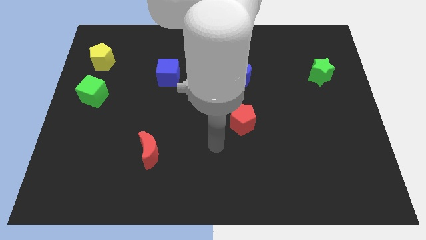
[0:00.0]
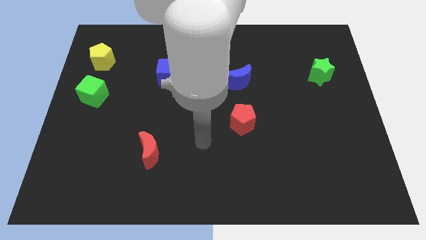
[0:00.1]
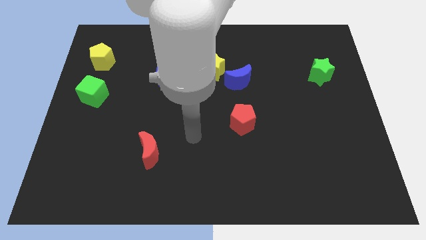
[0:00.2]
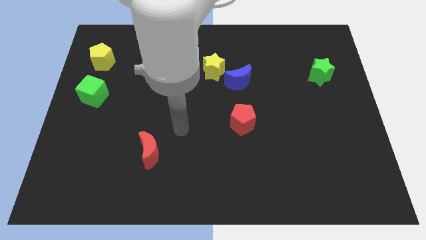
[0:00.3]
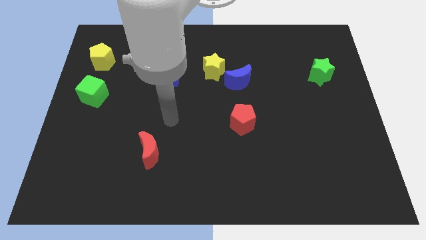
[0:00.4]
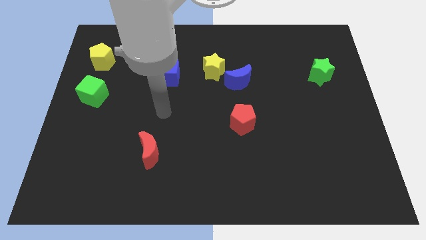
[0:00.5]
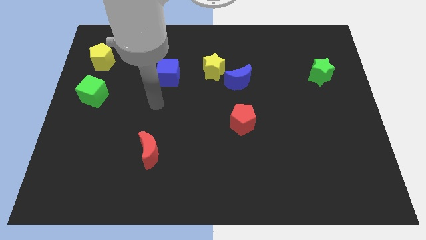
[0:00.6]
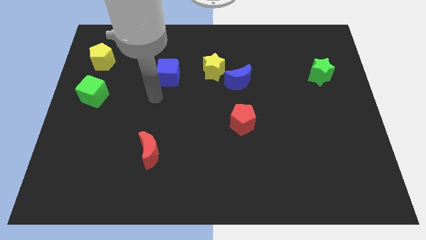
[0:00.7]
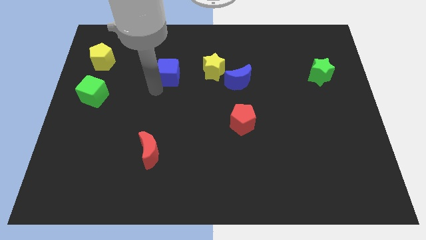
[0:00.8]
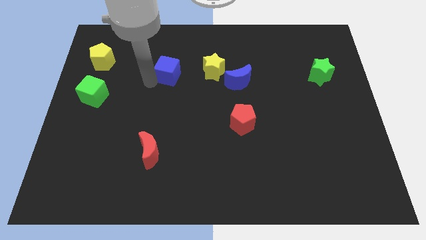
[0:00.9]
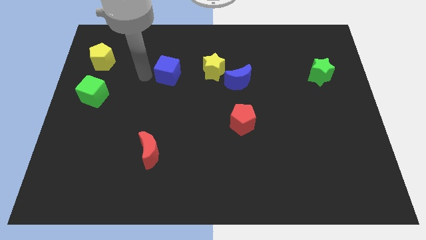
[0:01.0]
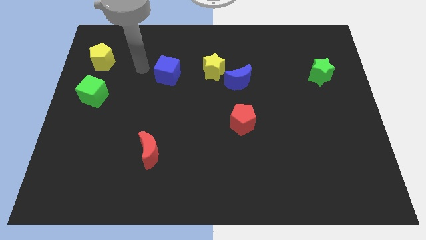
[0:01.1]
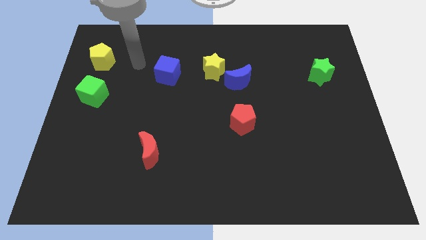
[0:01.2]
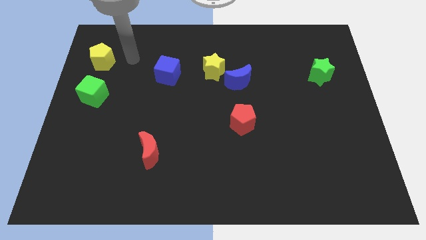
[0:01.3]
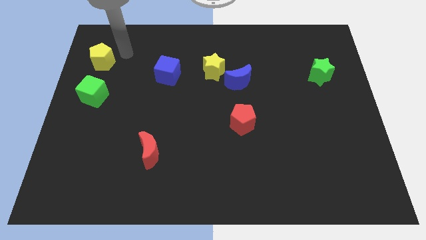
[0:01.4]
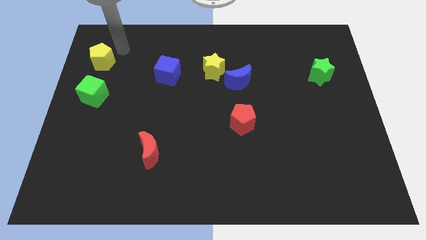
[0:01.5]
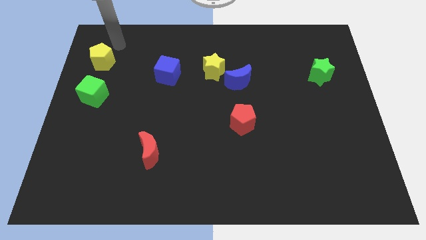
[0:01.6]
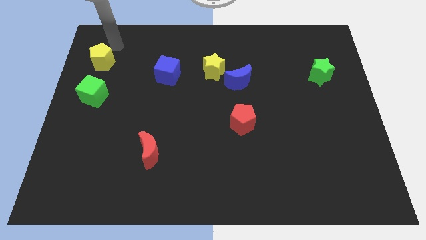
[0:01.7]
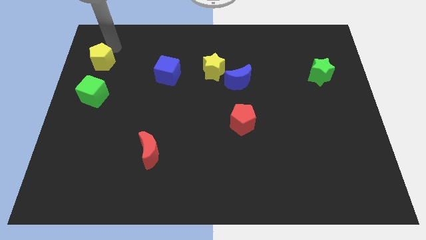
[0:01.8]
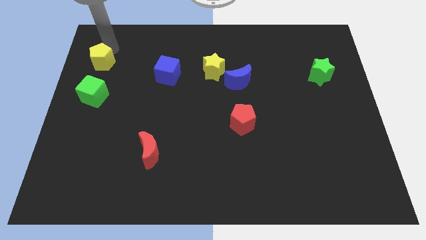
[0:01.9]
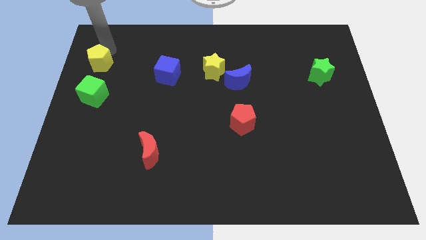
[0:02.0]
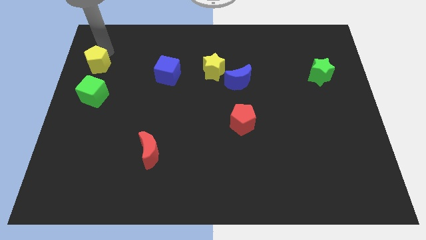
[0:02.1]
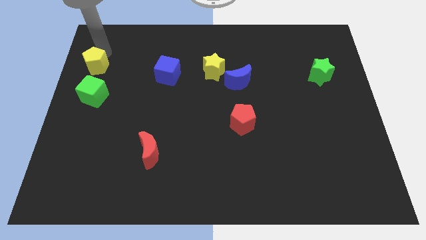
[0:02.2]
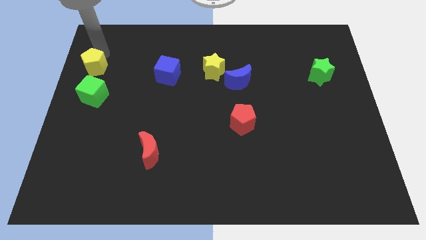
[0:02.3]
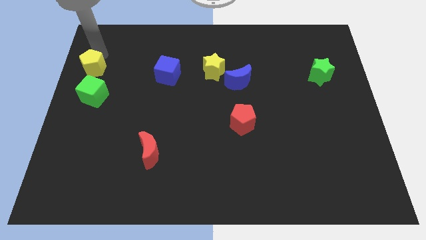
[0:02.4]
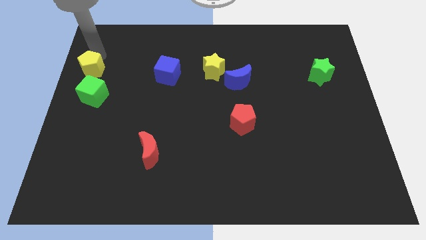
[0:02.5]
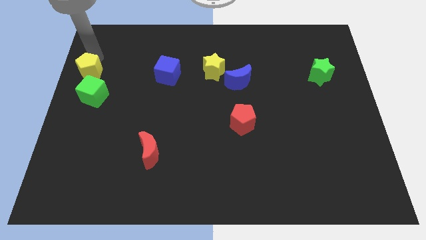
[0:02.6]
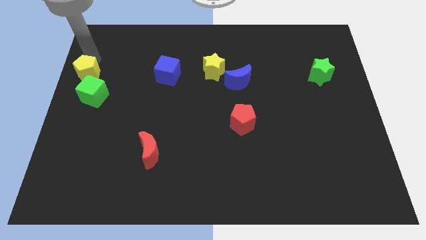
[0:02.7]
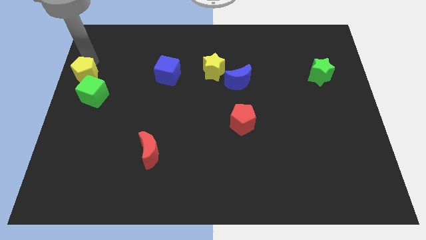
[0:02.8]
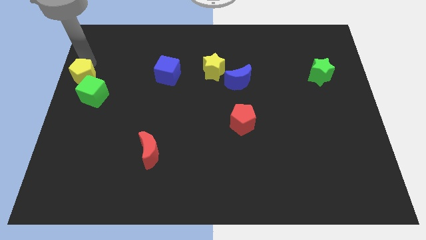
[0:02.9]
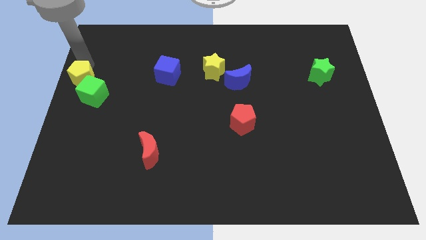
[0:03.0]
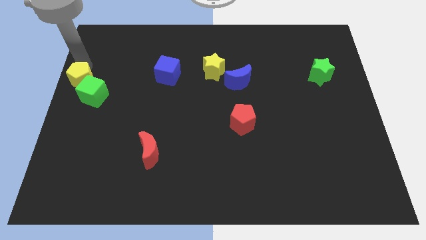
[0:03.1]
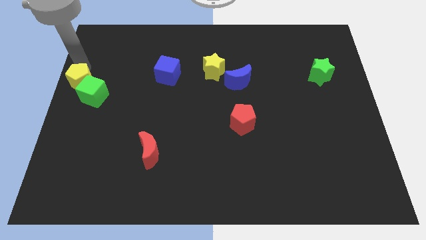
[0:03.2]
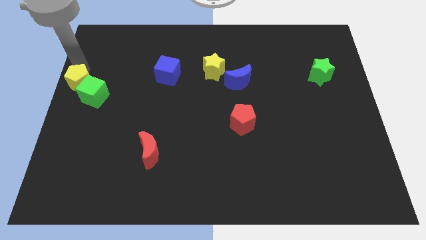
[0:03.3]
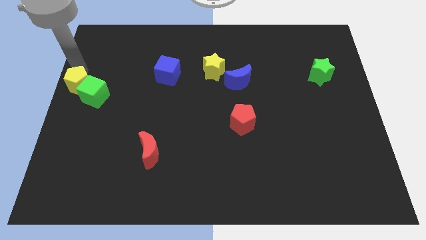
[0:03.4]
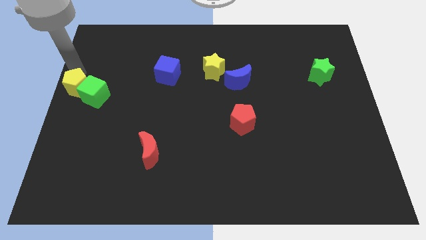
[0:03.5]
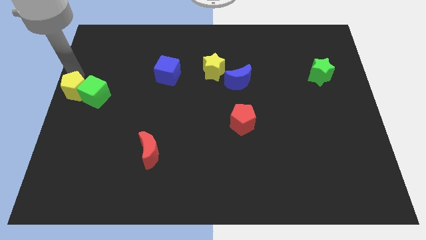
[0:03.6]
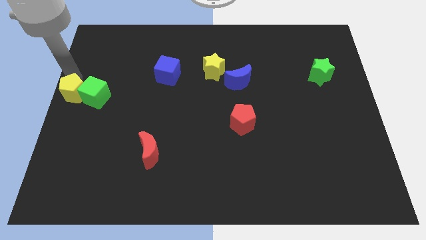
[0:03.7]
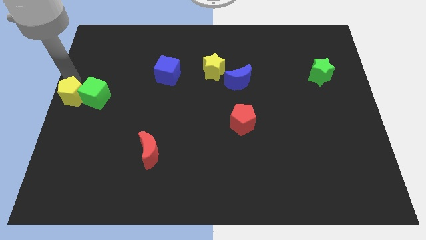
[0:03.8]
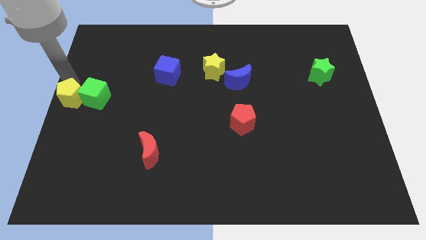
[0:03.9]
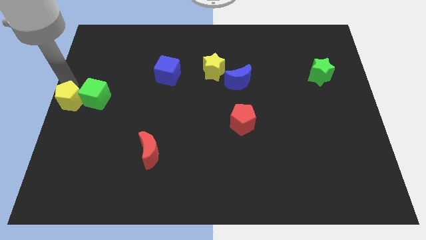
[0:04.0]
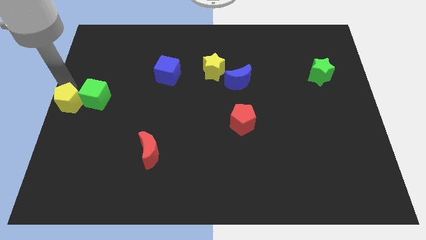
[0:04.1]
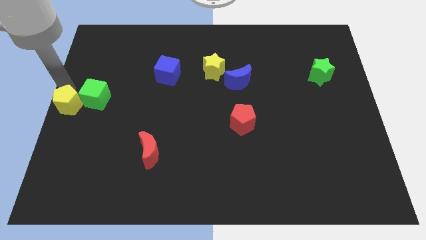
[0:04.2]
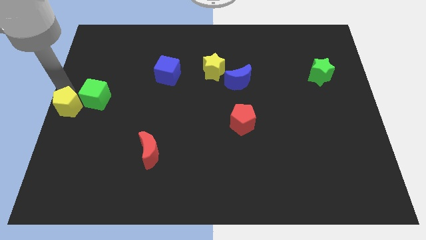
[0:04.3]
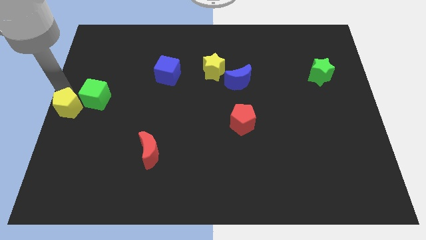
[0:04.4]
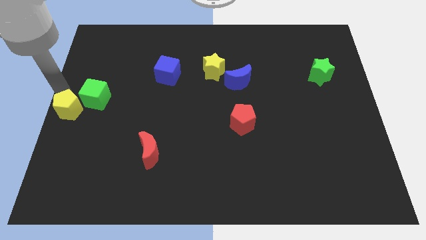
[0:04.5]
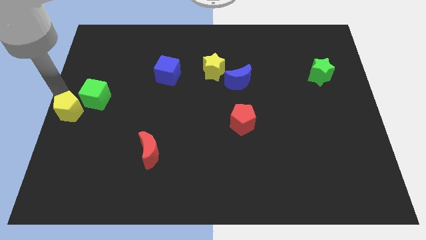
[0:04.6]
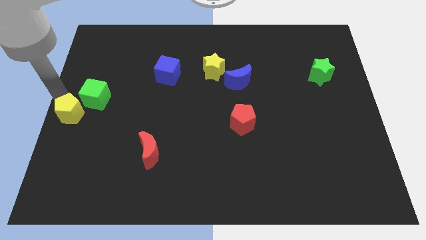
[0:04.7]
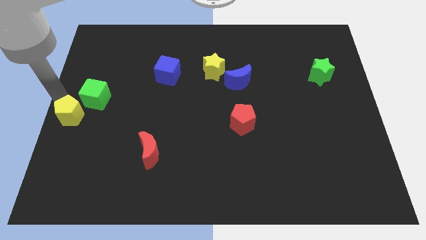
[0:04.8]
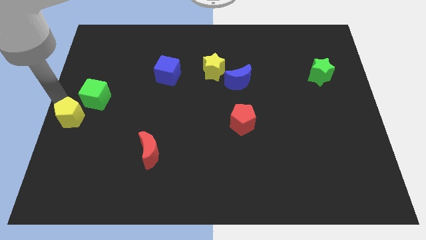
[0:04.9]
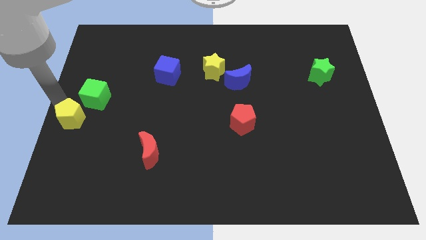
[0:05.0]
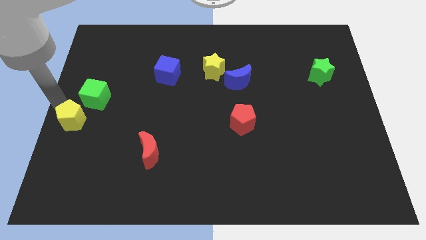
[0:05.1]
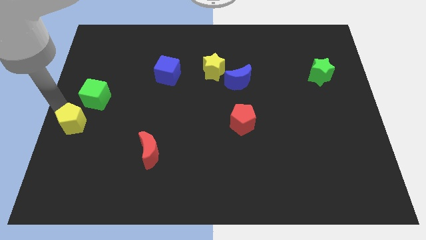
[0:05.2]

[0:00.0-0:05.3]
slide the yellow pentagon down

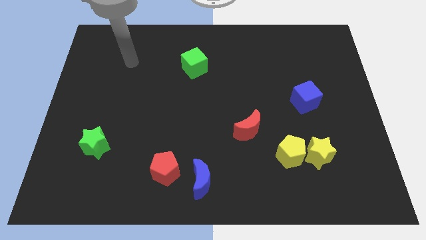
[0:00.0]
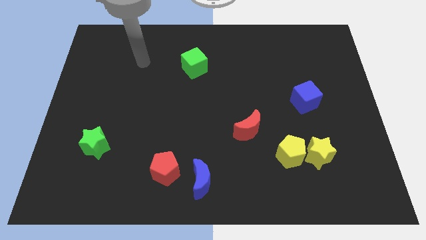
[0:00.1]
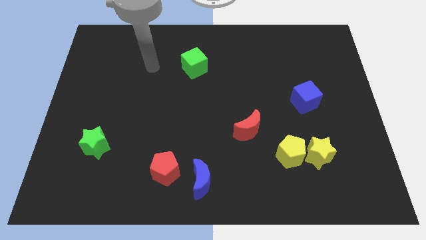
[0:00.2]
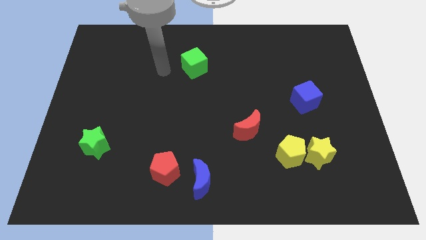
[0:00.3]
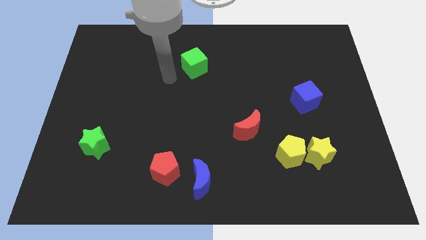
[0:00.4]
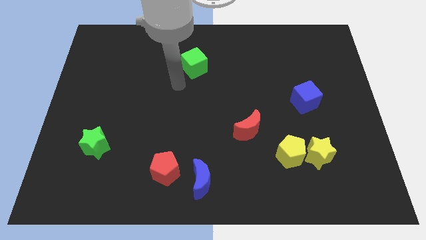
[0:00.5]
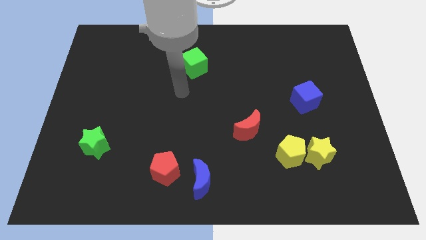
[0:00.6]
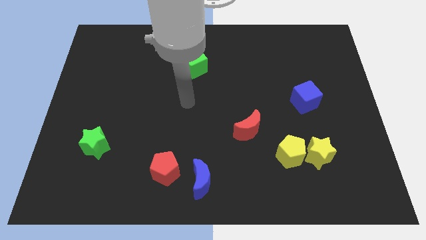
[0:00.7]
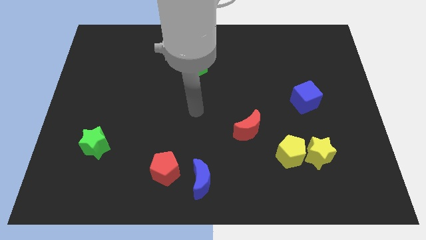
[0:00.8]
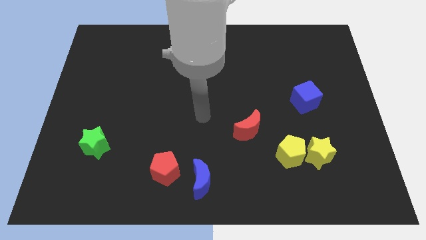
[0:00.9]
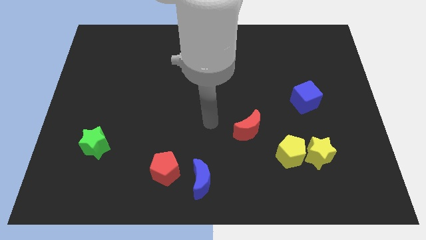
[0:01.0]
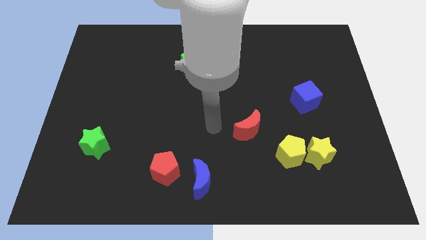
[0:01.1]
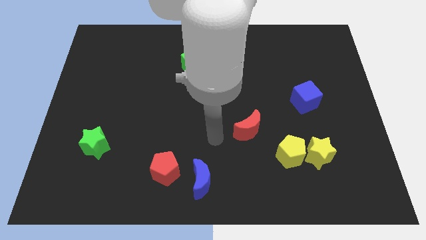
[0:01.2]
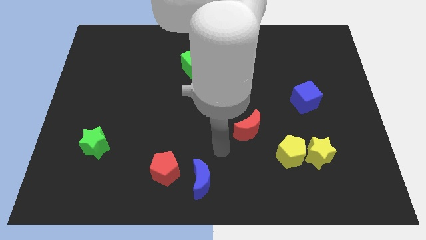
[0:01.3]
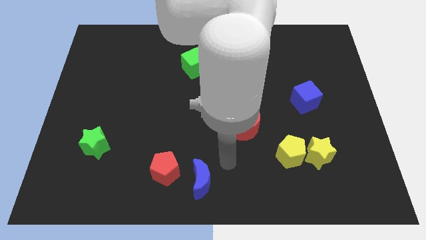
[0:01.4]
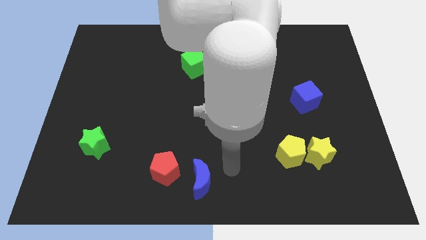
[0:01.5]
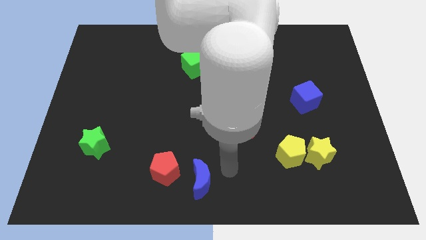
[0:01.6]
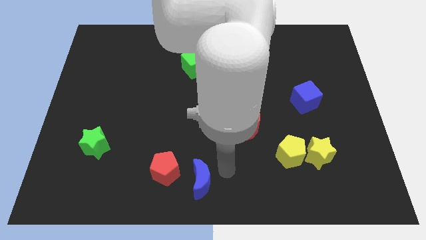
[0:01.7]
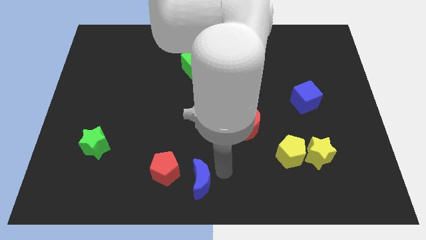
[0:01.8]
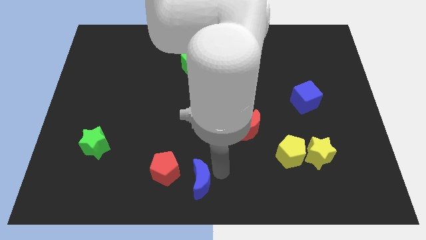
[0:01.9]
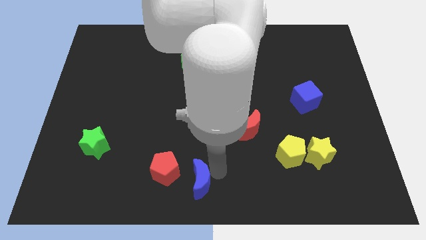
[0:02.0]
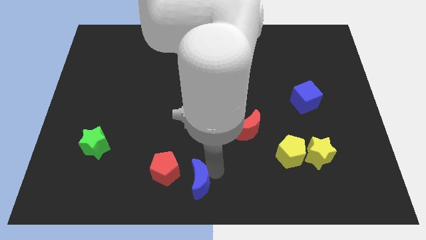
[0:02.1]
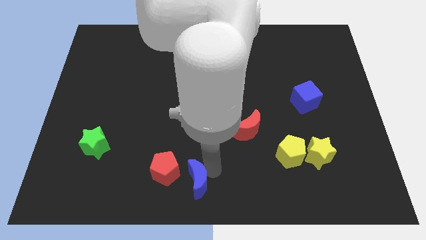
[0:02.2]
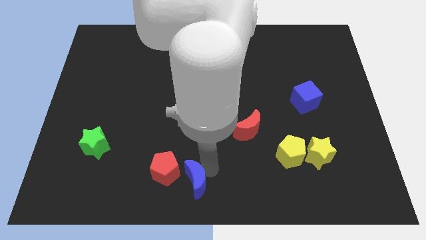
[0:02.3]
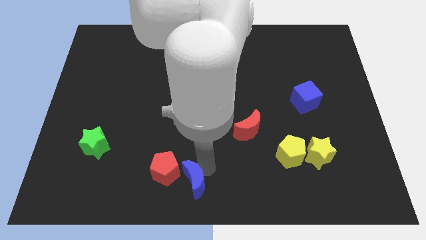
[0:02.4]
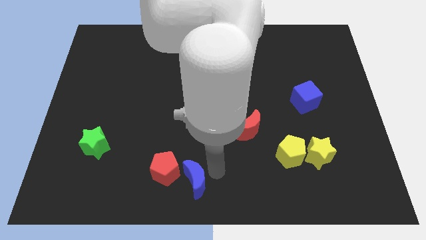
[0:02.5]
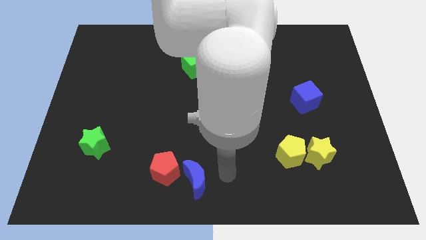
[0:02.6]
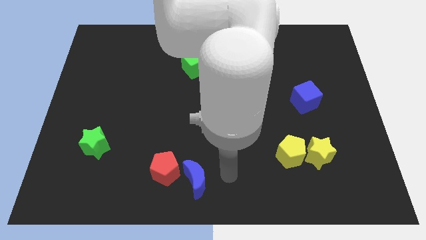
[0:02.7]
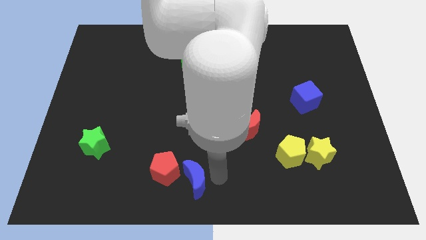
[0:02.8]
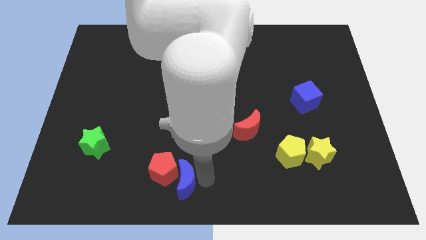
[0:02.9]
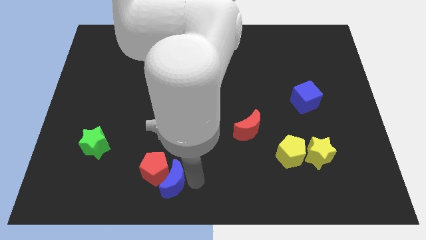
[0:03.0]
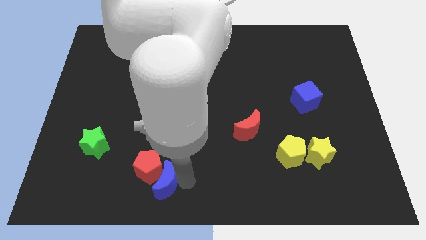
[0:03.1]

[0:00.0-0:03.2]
move the blue moon a little bit left

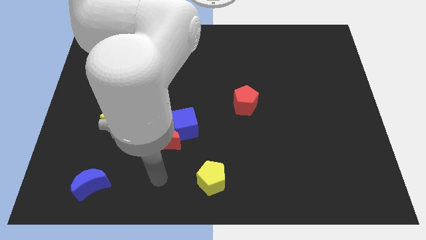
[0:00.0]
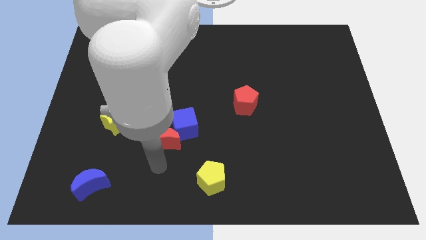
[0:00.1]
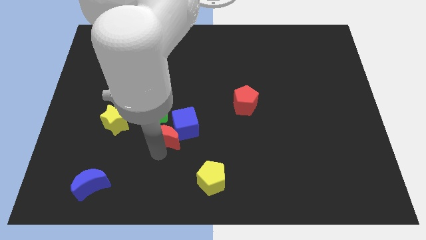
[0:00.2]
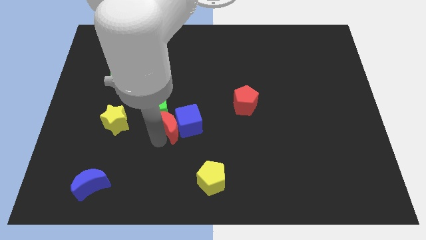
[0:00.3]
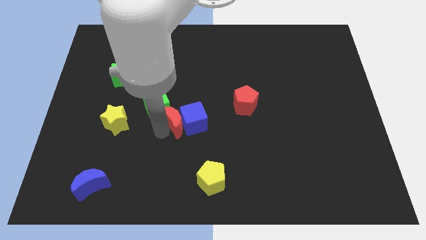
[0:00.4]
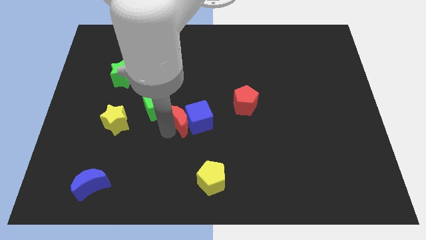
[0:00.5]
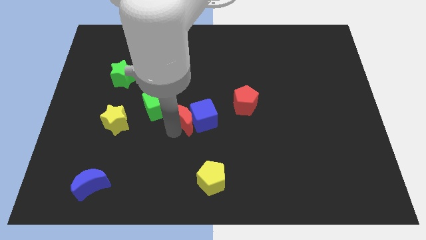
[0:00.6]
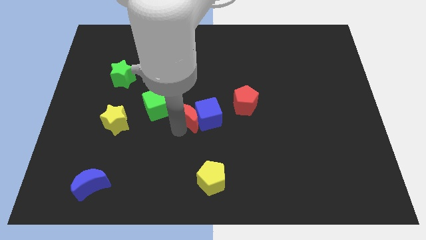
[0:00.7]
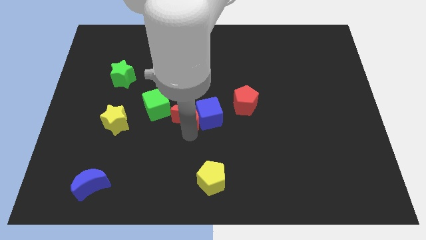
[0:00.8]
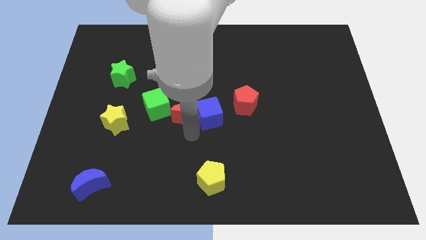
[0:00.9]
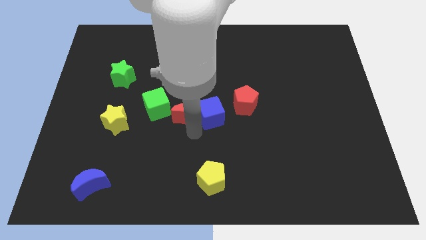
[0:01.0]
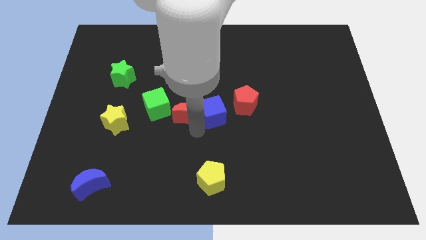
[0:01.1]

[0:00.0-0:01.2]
push the blue cube upwards and right slightly
